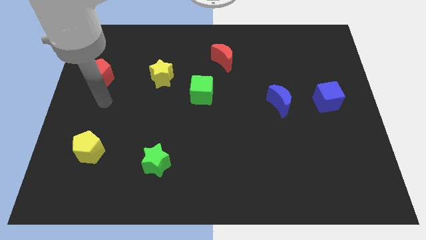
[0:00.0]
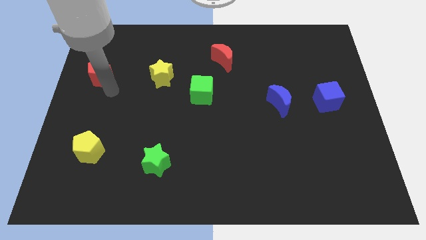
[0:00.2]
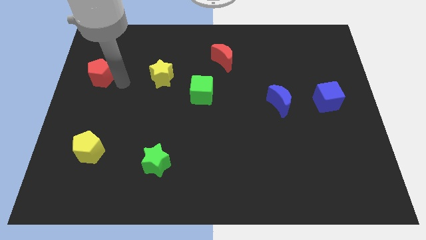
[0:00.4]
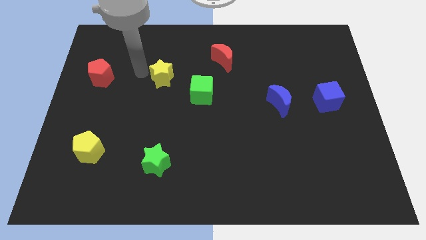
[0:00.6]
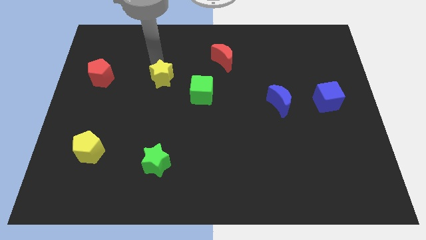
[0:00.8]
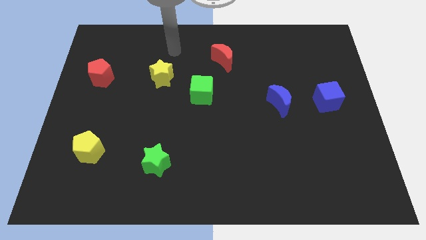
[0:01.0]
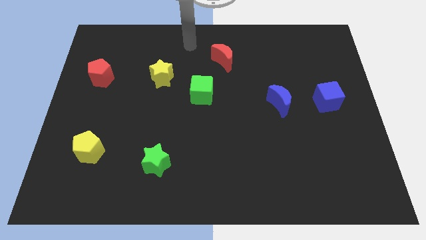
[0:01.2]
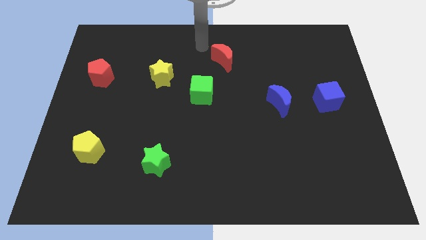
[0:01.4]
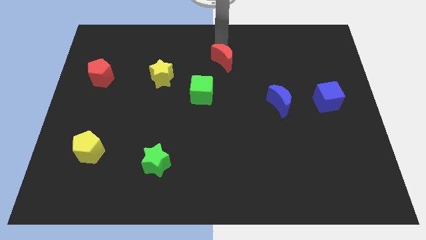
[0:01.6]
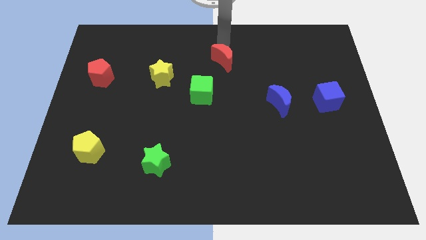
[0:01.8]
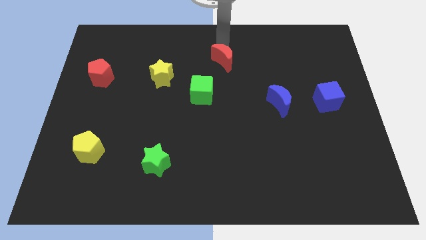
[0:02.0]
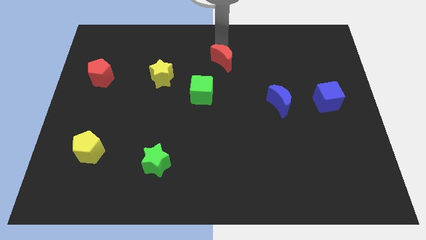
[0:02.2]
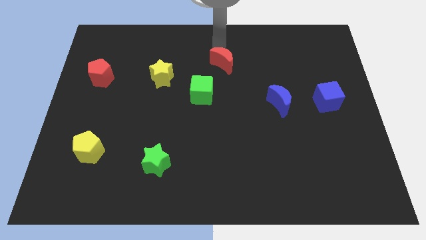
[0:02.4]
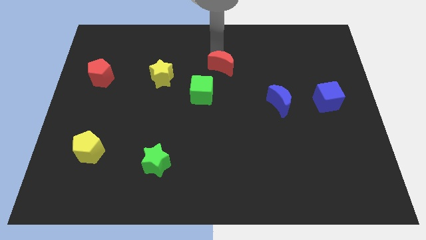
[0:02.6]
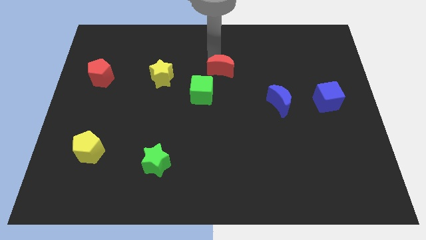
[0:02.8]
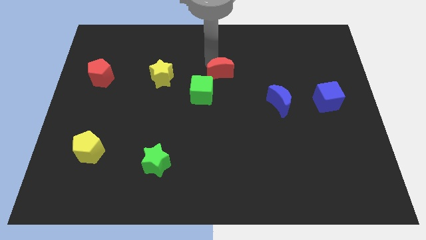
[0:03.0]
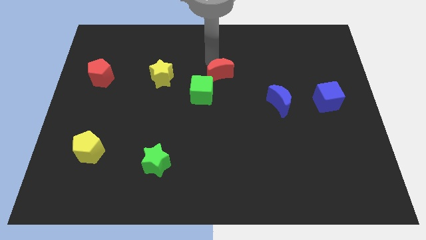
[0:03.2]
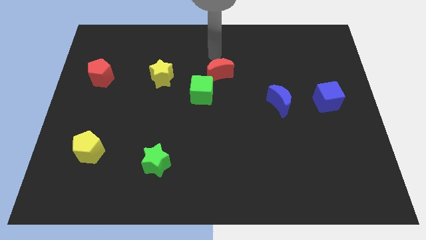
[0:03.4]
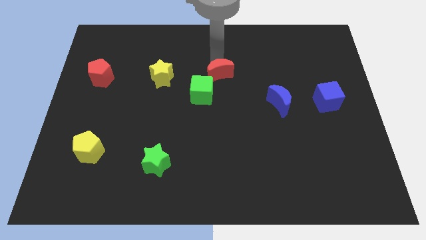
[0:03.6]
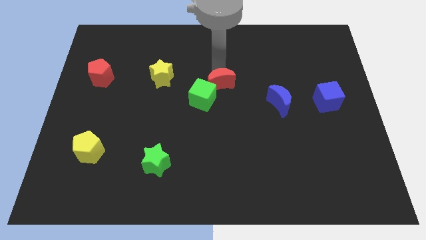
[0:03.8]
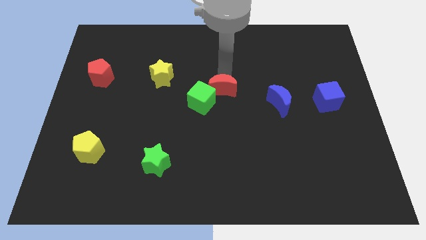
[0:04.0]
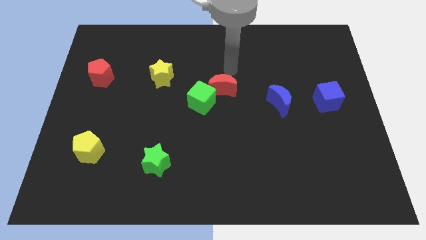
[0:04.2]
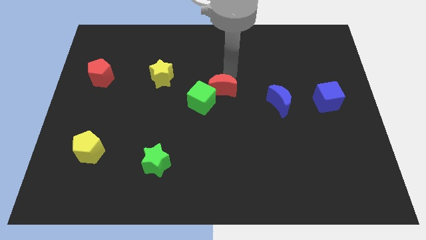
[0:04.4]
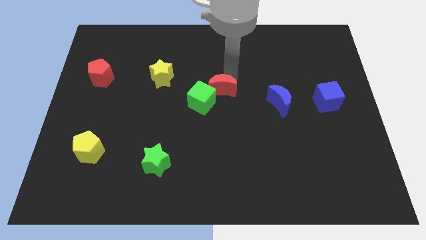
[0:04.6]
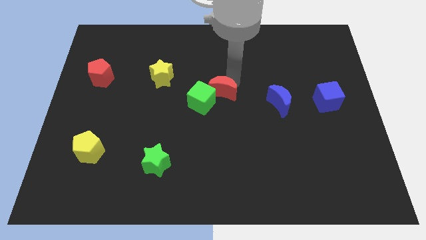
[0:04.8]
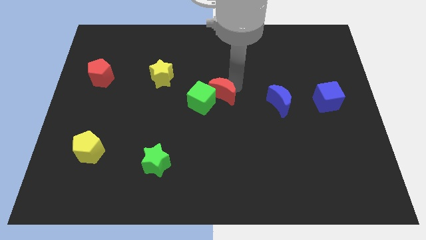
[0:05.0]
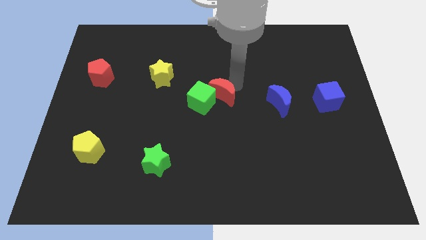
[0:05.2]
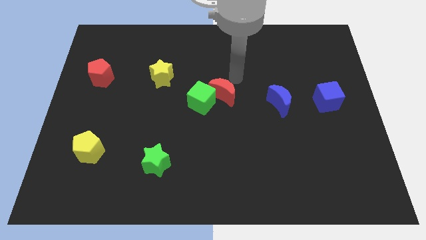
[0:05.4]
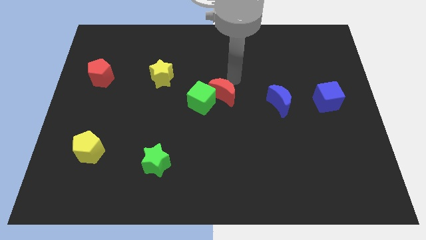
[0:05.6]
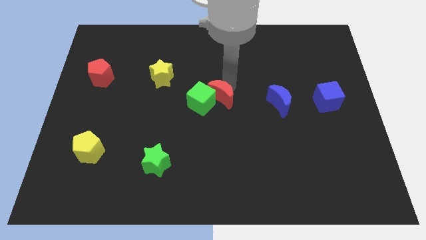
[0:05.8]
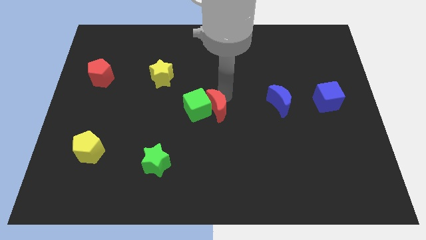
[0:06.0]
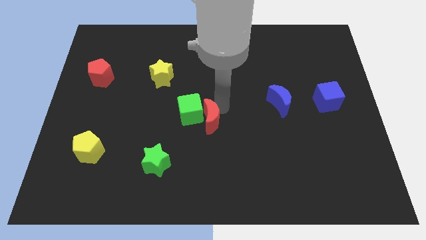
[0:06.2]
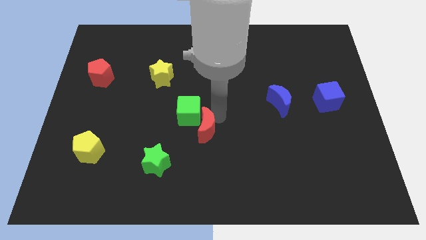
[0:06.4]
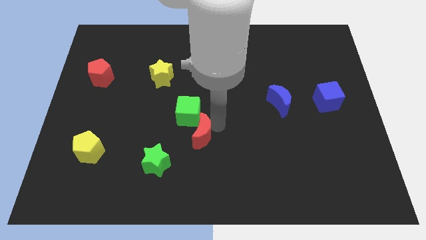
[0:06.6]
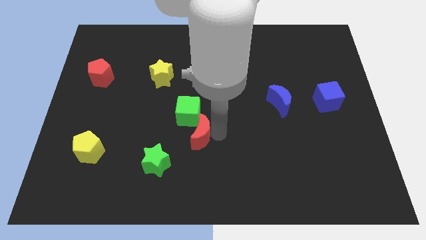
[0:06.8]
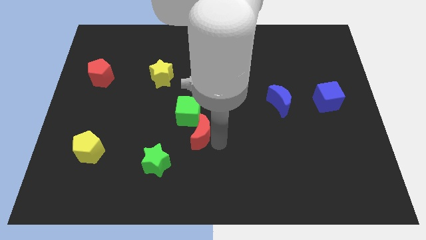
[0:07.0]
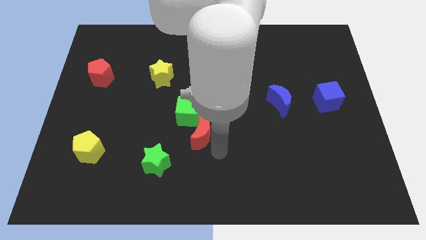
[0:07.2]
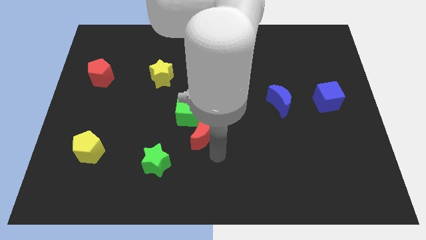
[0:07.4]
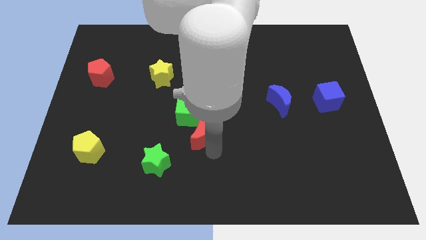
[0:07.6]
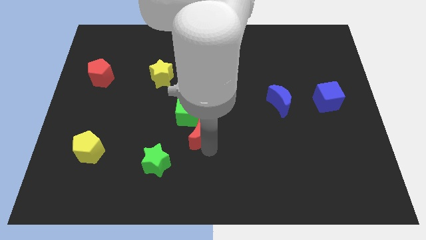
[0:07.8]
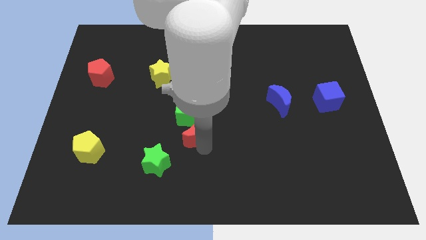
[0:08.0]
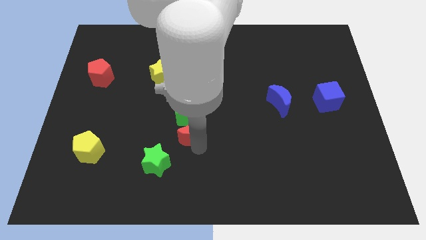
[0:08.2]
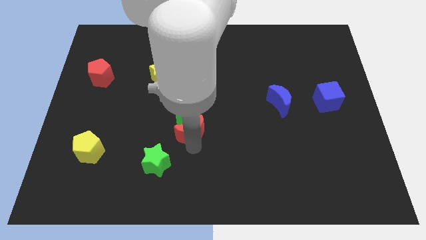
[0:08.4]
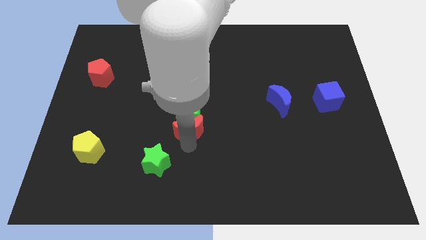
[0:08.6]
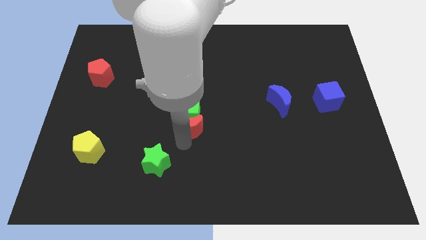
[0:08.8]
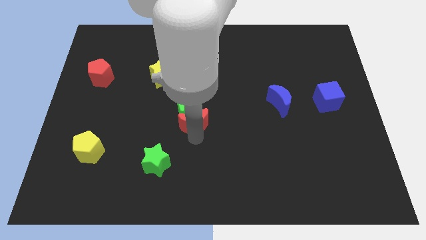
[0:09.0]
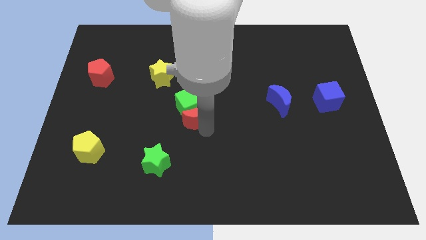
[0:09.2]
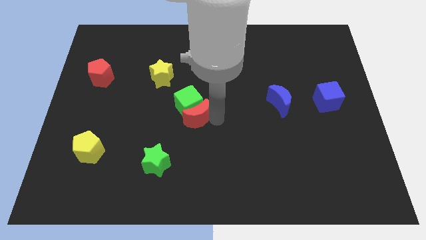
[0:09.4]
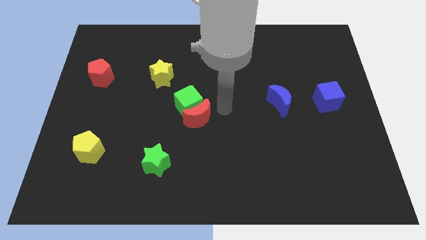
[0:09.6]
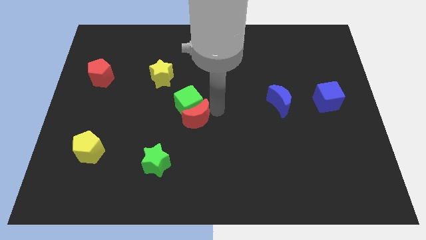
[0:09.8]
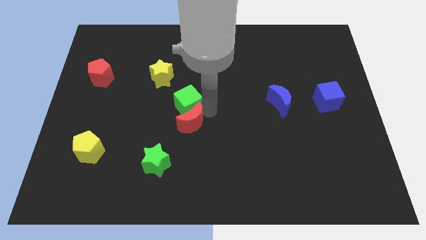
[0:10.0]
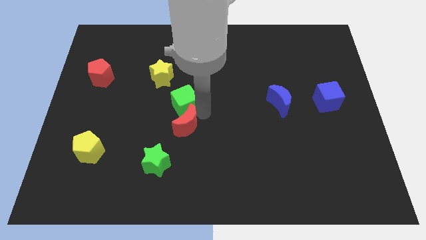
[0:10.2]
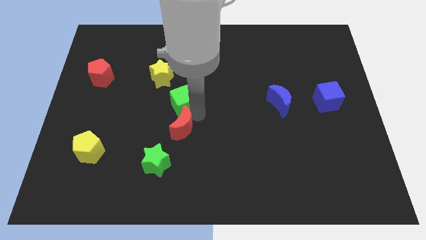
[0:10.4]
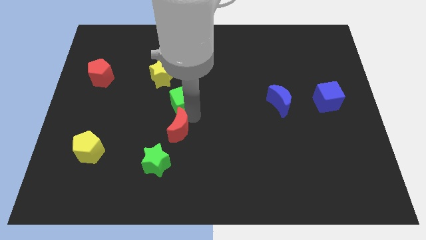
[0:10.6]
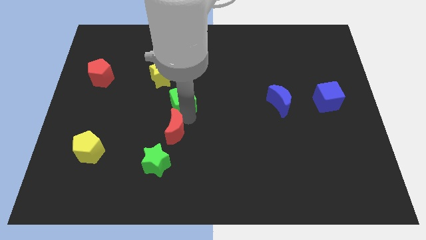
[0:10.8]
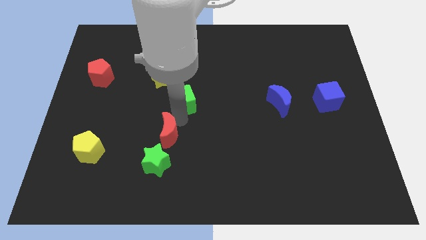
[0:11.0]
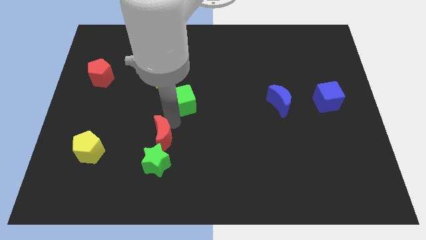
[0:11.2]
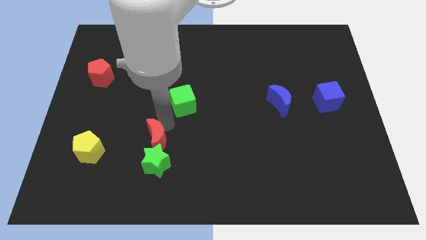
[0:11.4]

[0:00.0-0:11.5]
put the red moon to the right of the yellow pentagon

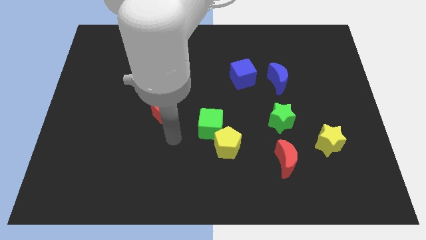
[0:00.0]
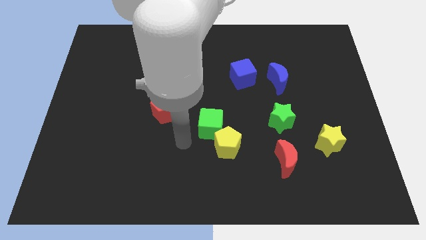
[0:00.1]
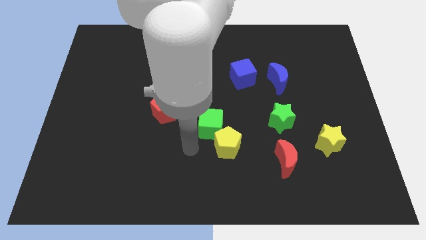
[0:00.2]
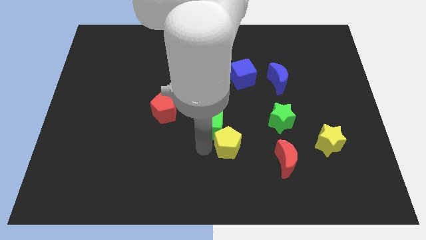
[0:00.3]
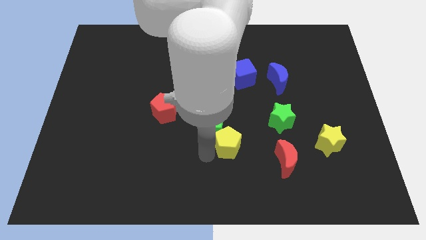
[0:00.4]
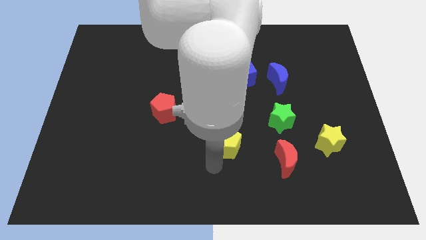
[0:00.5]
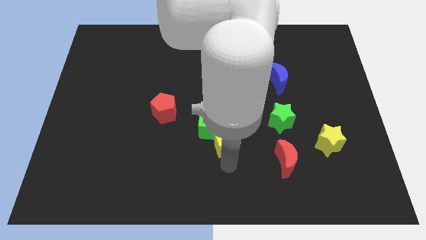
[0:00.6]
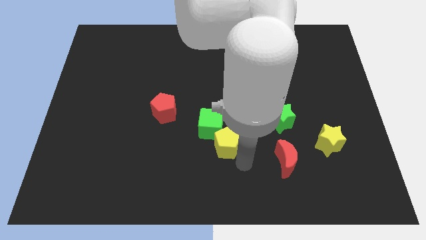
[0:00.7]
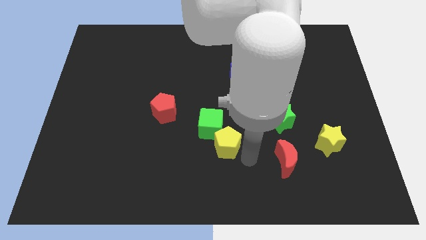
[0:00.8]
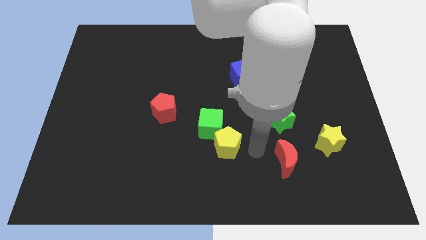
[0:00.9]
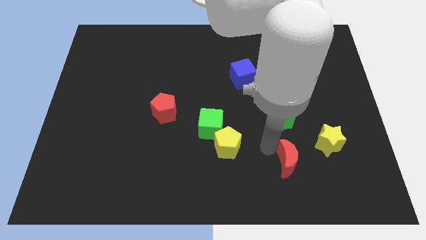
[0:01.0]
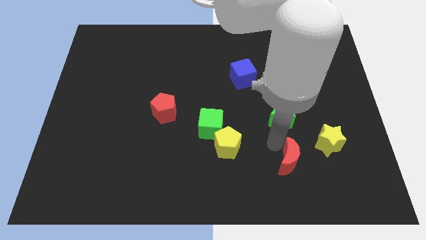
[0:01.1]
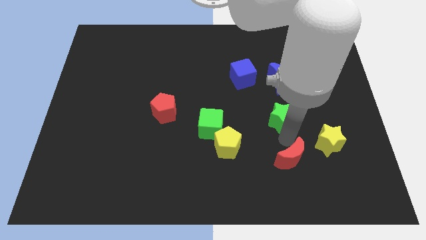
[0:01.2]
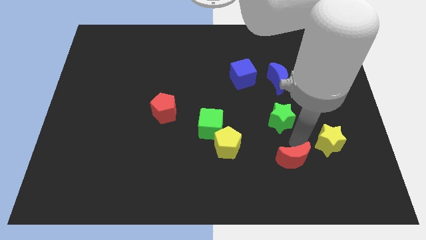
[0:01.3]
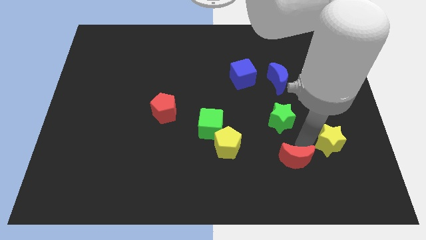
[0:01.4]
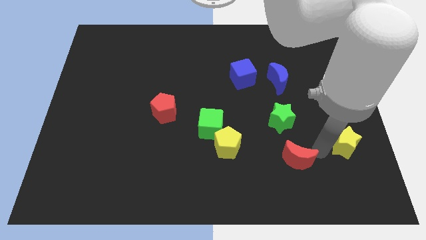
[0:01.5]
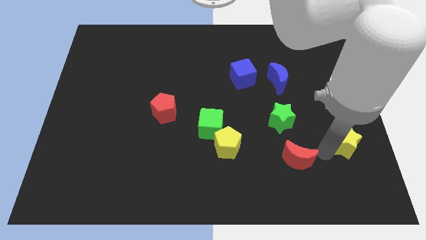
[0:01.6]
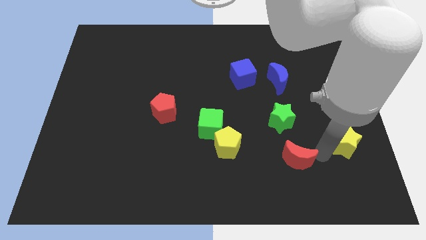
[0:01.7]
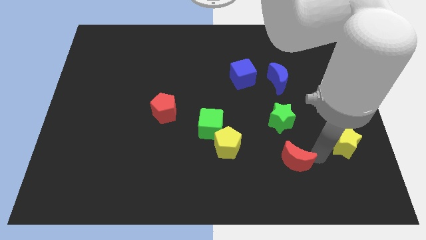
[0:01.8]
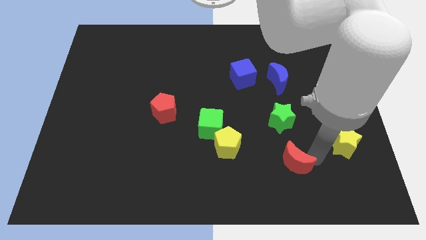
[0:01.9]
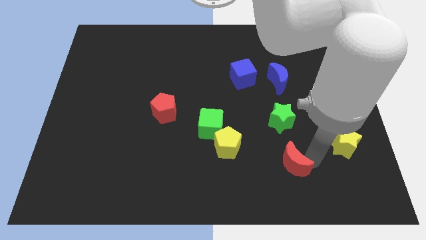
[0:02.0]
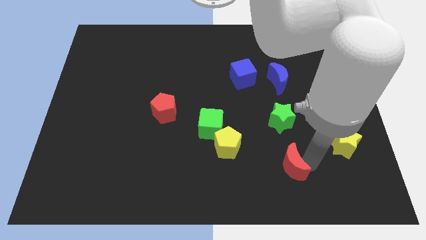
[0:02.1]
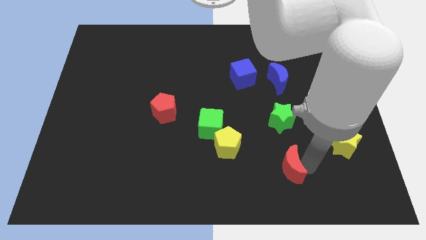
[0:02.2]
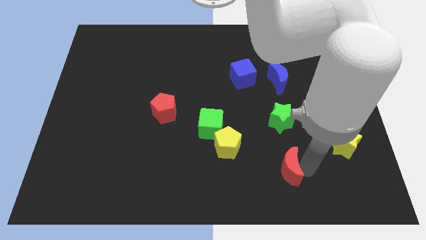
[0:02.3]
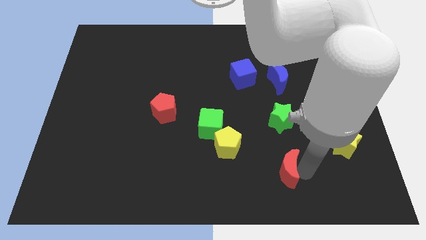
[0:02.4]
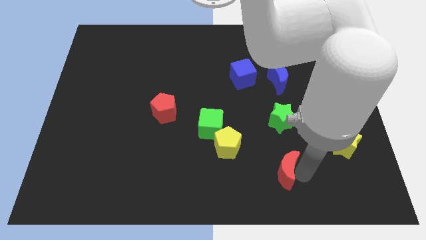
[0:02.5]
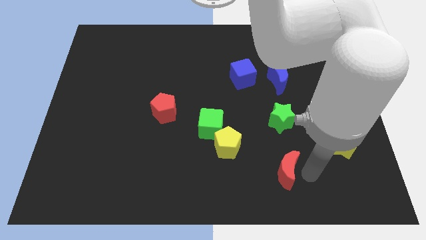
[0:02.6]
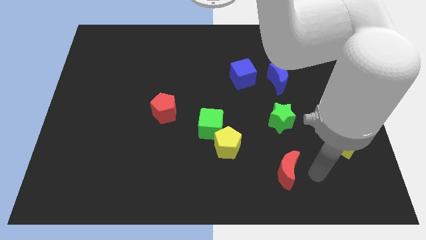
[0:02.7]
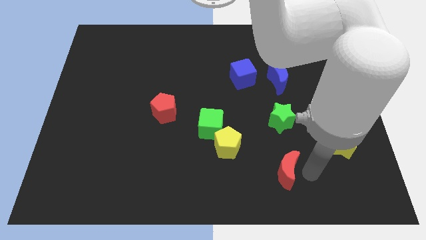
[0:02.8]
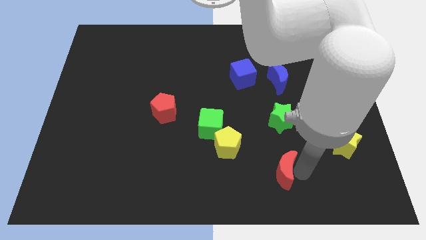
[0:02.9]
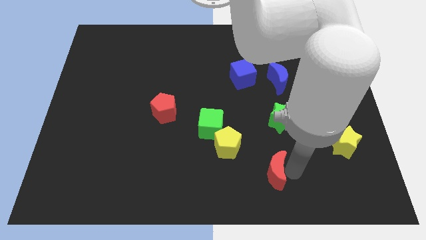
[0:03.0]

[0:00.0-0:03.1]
put the red moon to the bottom right side of the yellow pentagon
